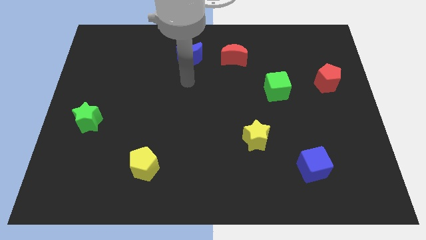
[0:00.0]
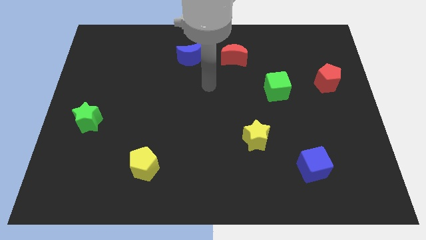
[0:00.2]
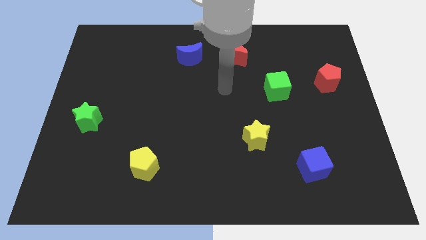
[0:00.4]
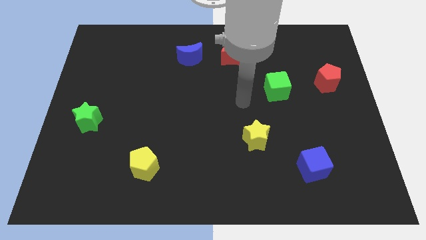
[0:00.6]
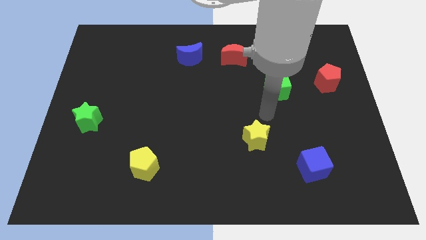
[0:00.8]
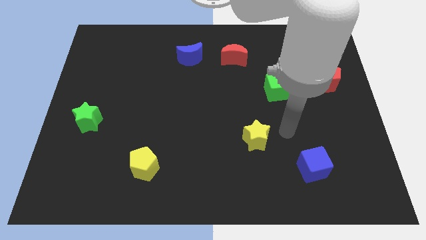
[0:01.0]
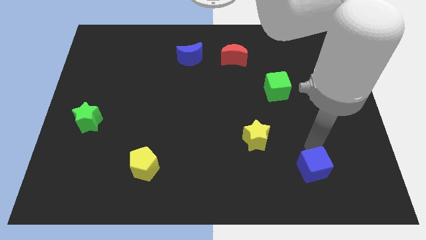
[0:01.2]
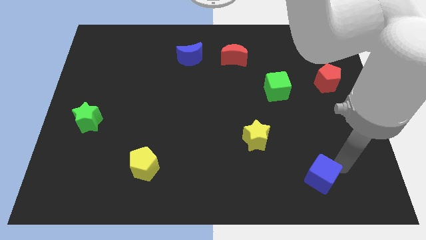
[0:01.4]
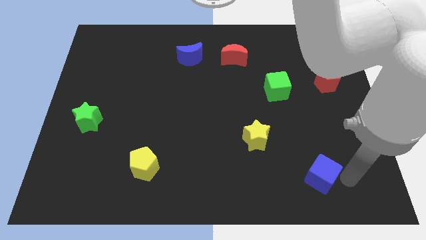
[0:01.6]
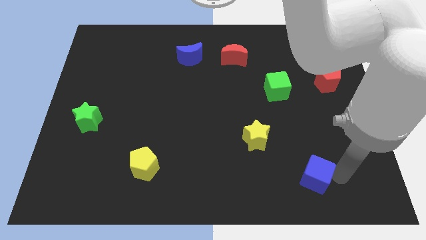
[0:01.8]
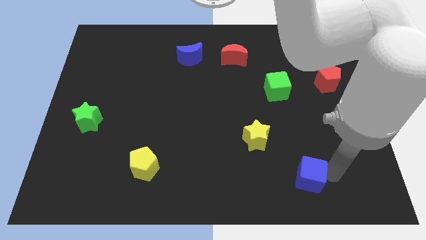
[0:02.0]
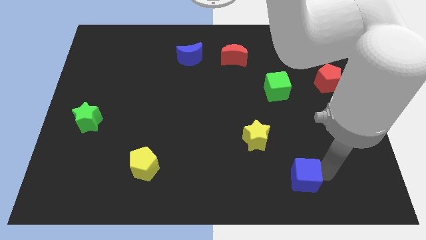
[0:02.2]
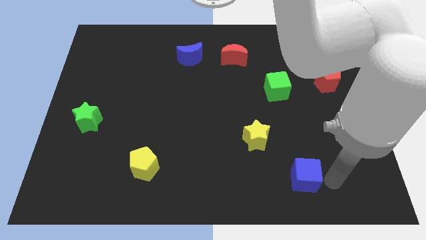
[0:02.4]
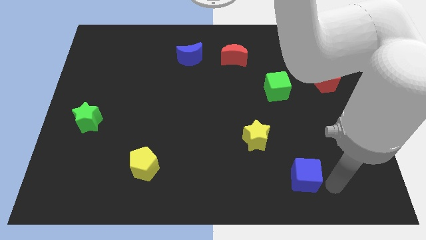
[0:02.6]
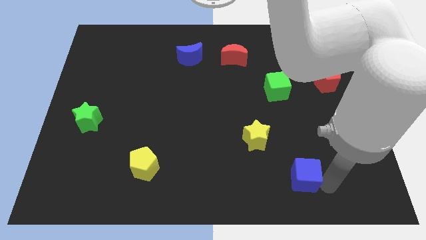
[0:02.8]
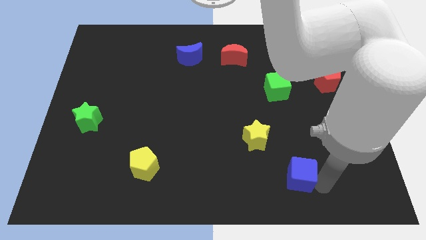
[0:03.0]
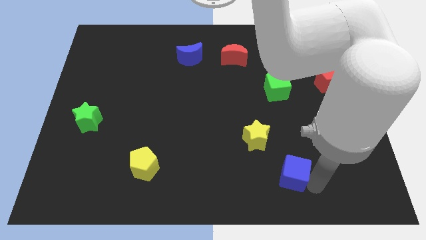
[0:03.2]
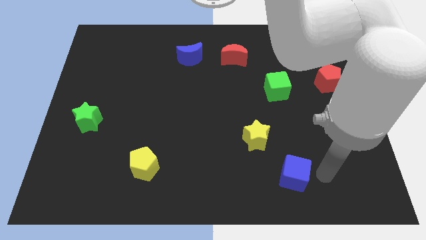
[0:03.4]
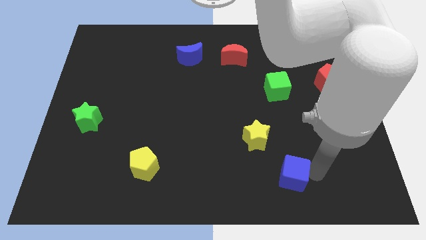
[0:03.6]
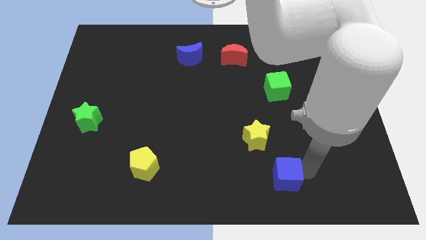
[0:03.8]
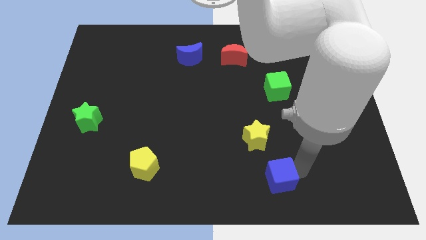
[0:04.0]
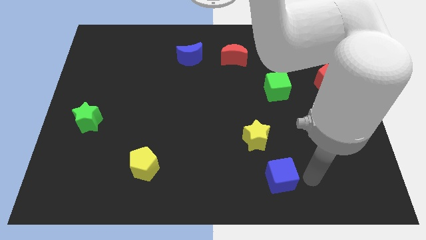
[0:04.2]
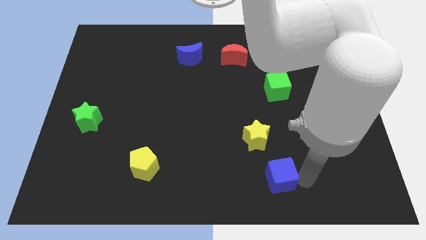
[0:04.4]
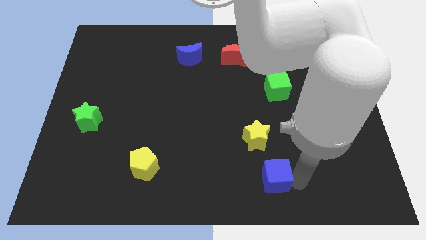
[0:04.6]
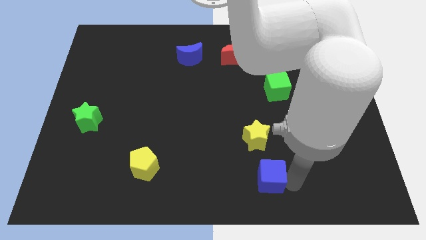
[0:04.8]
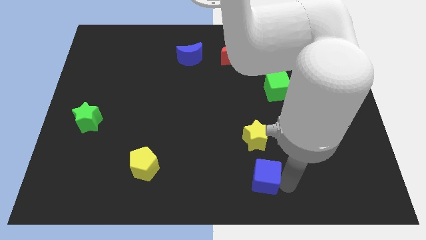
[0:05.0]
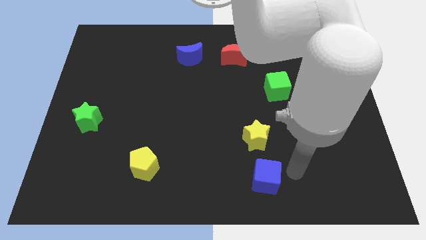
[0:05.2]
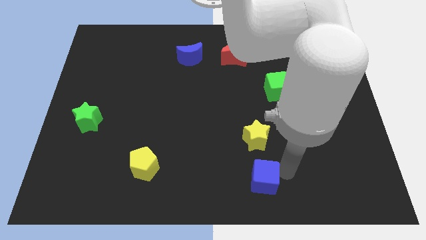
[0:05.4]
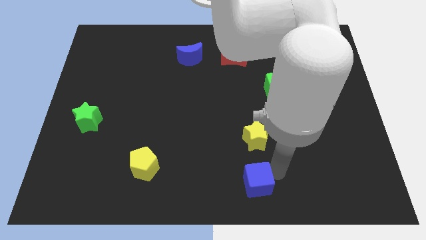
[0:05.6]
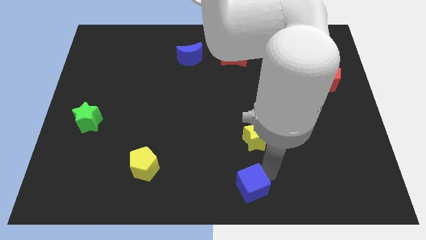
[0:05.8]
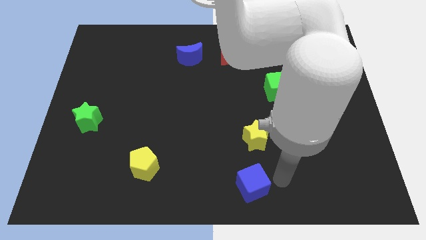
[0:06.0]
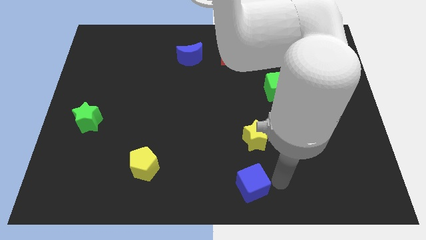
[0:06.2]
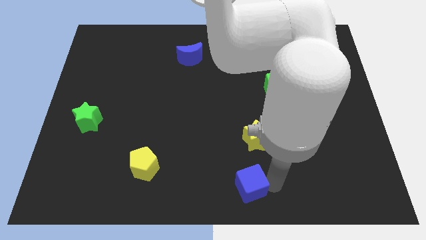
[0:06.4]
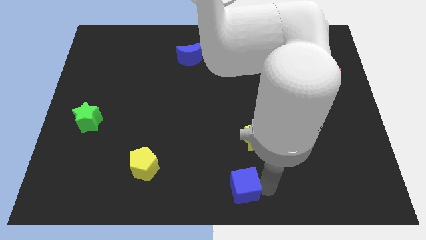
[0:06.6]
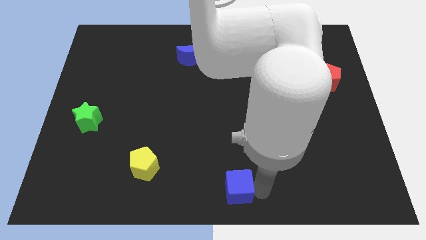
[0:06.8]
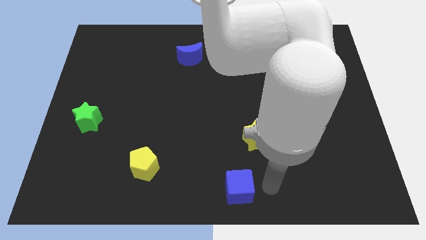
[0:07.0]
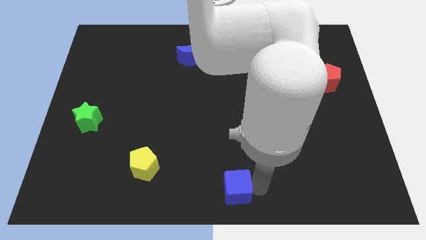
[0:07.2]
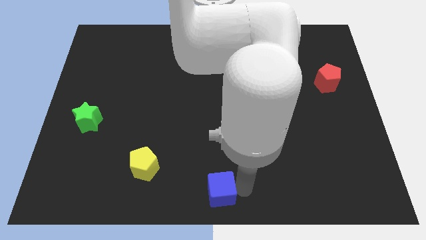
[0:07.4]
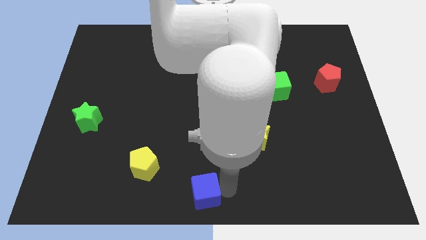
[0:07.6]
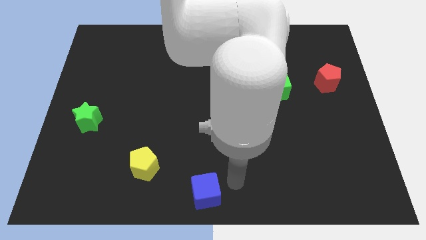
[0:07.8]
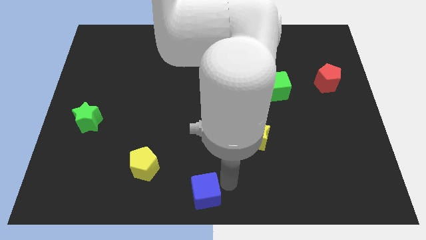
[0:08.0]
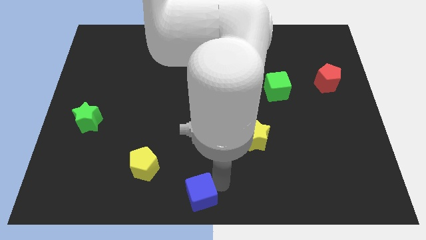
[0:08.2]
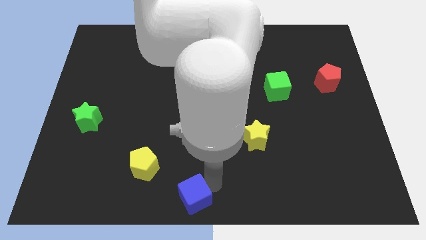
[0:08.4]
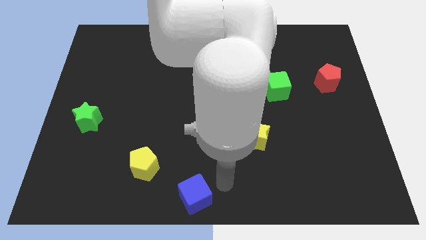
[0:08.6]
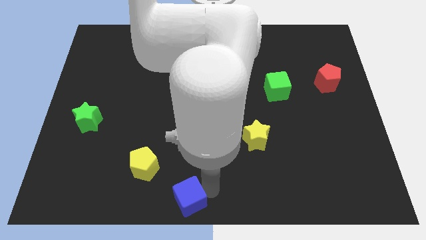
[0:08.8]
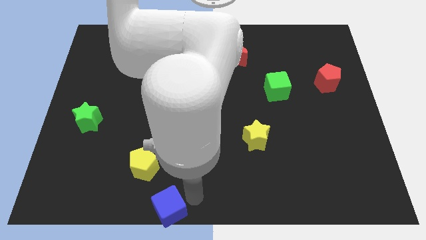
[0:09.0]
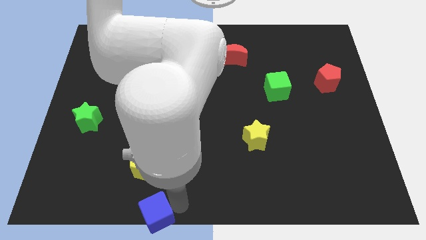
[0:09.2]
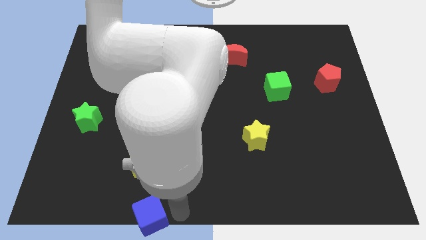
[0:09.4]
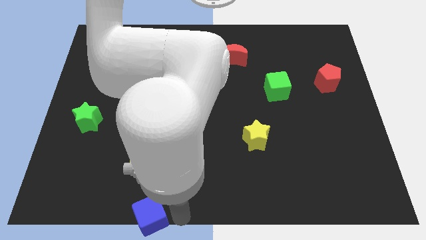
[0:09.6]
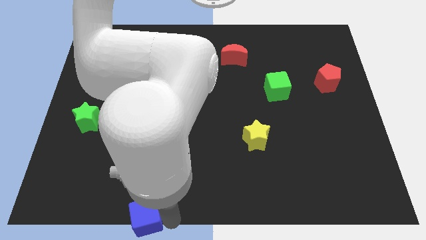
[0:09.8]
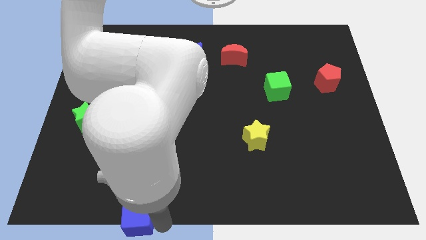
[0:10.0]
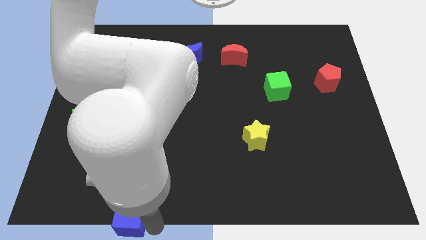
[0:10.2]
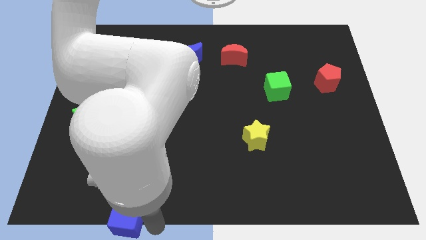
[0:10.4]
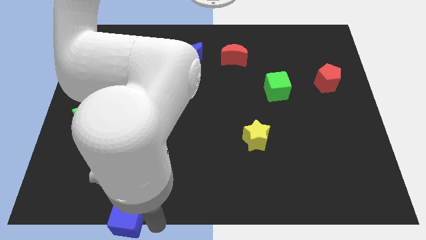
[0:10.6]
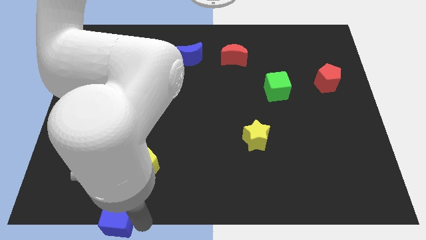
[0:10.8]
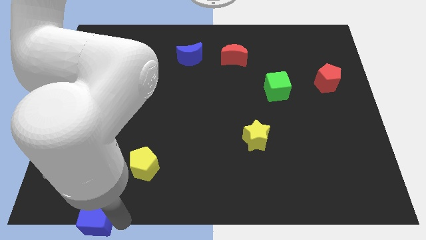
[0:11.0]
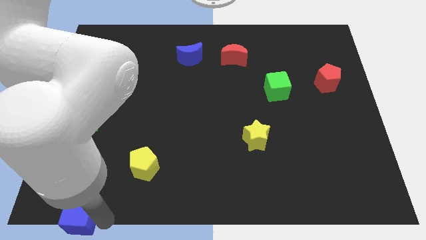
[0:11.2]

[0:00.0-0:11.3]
move the blue cube to the bottom left of the board

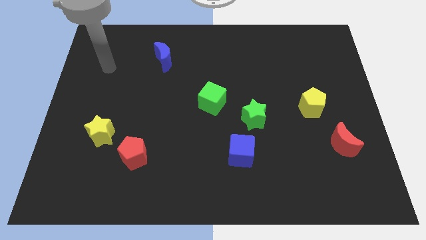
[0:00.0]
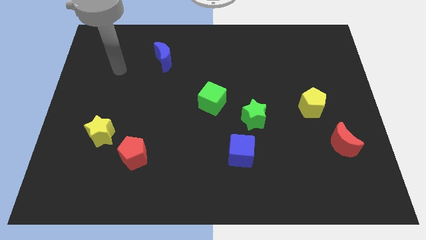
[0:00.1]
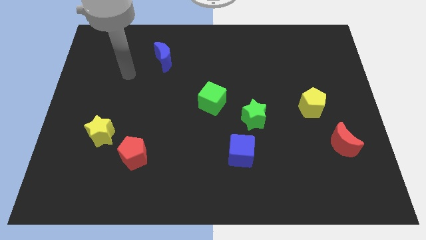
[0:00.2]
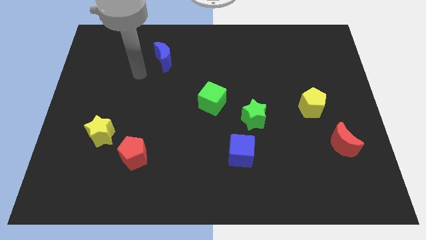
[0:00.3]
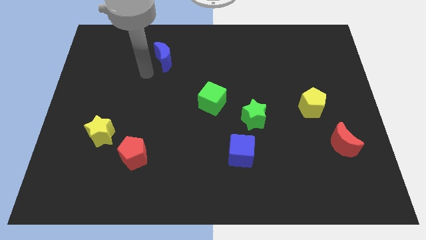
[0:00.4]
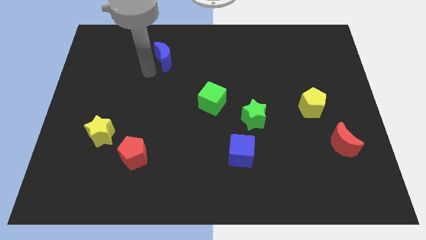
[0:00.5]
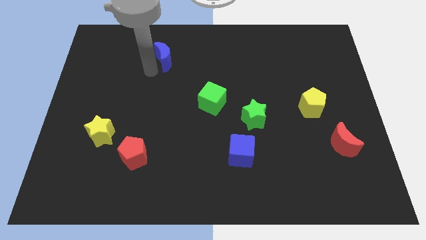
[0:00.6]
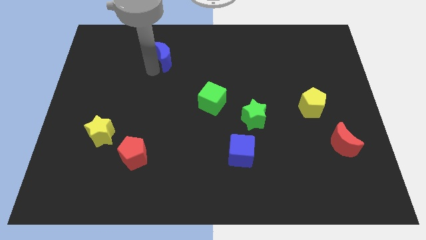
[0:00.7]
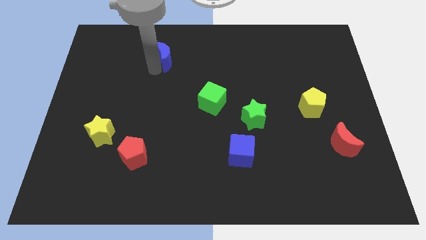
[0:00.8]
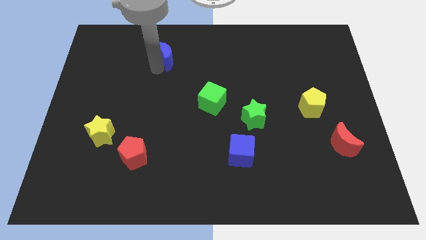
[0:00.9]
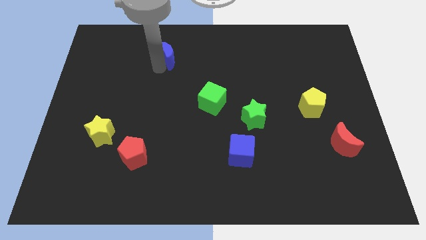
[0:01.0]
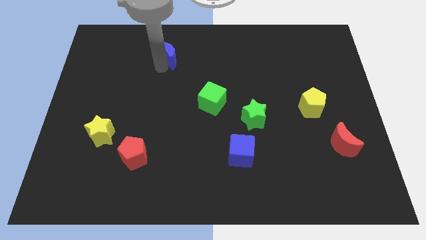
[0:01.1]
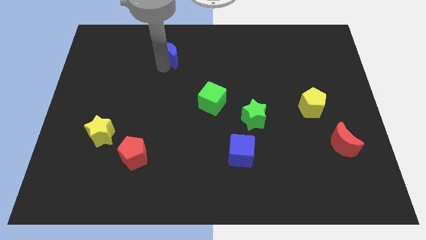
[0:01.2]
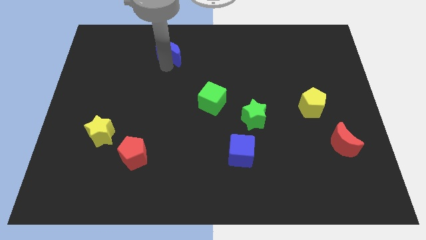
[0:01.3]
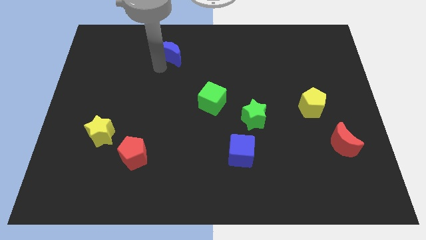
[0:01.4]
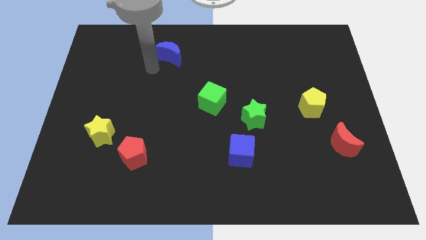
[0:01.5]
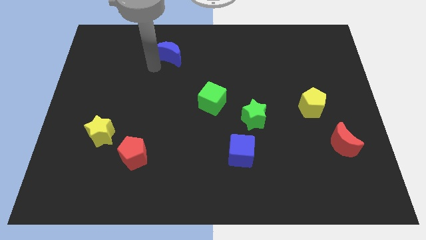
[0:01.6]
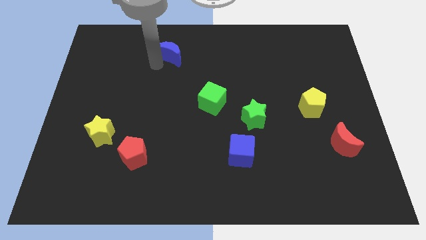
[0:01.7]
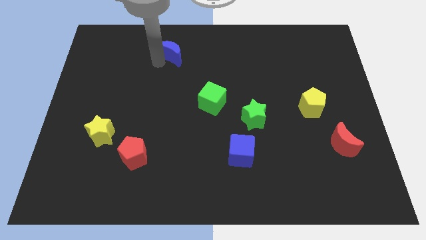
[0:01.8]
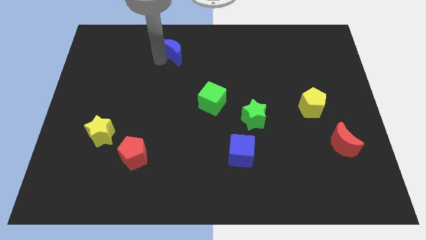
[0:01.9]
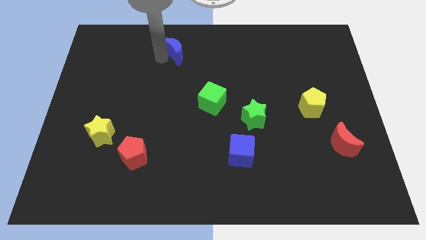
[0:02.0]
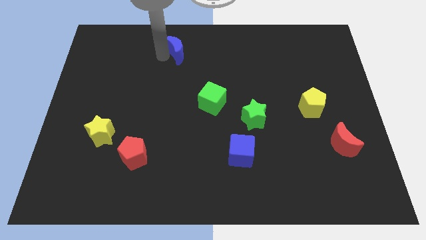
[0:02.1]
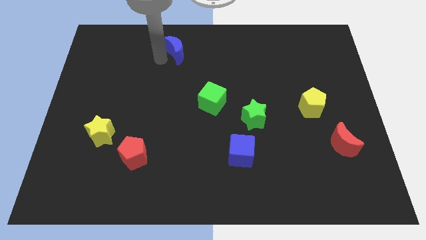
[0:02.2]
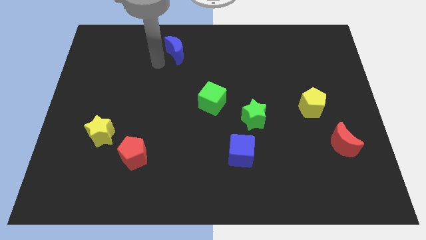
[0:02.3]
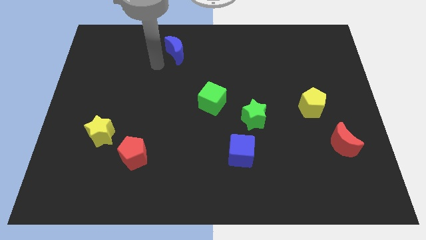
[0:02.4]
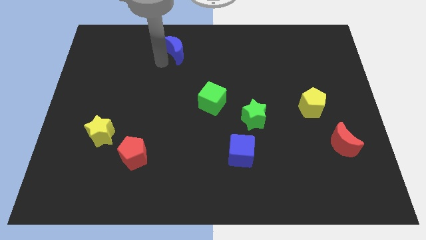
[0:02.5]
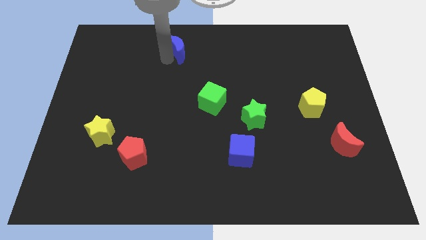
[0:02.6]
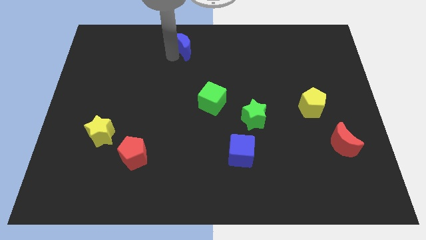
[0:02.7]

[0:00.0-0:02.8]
push the blue moon to the towards your base
